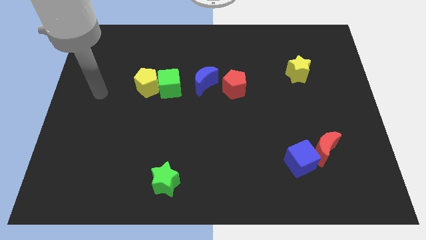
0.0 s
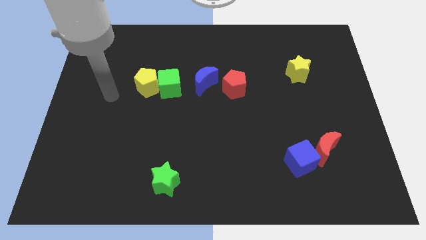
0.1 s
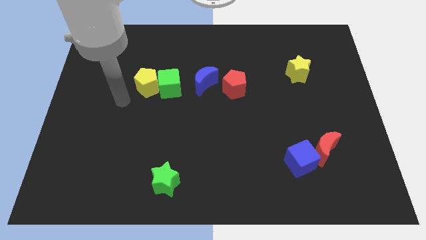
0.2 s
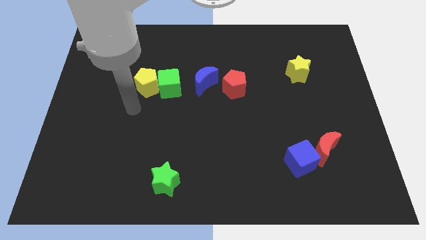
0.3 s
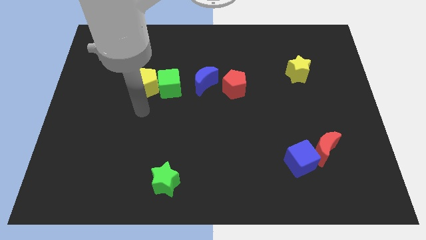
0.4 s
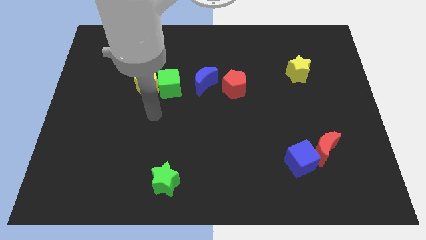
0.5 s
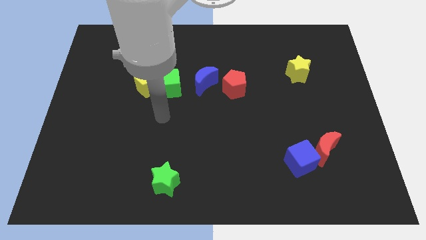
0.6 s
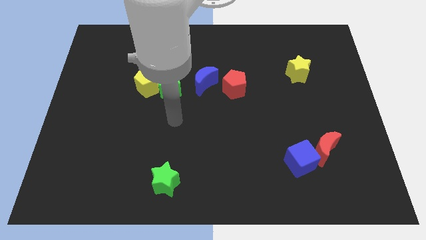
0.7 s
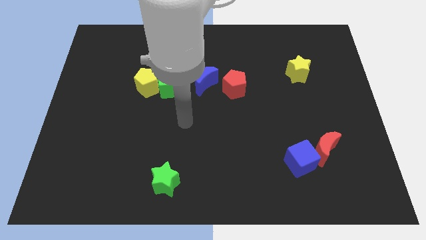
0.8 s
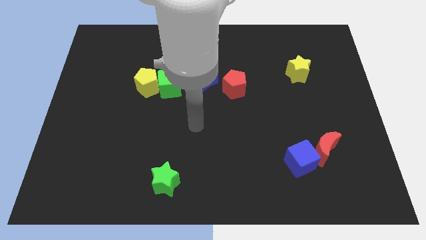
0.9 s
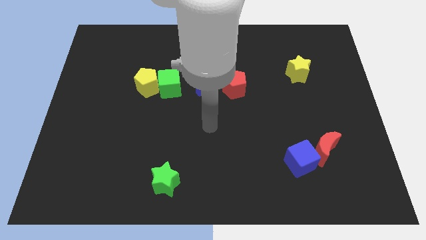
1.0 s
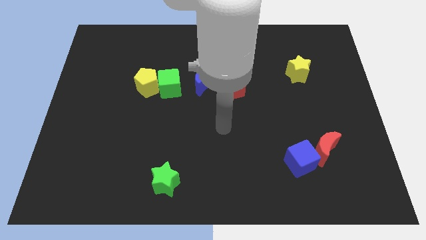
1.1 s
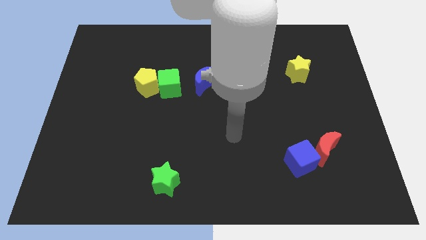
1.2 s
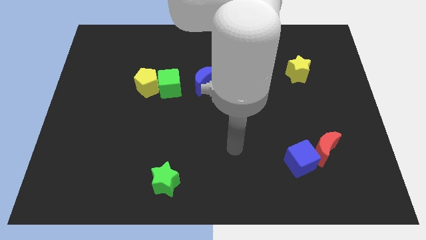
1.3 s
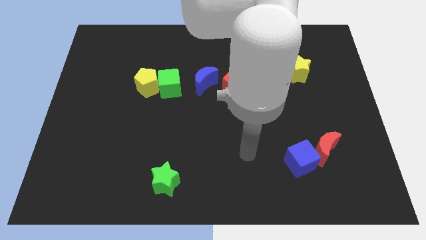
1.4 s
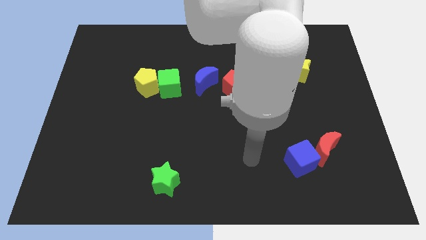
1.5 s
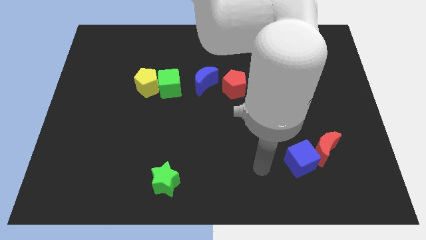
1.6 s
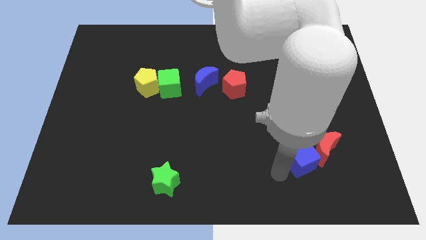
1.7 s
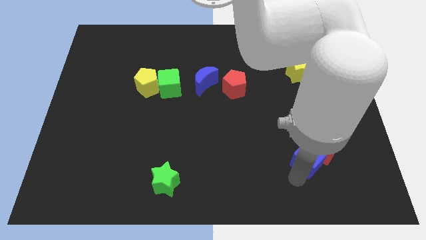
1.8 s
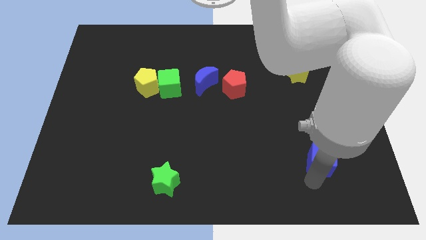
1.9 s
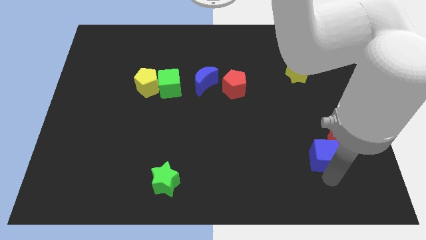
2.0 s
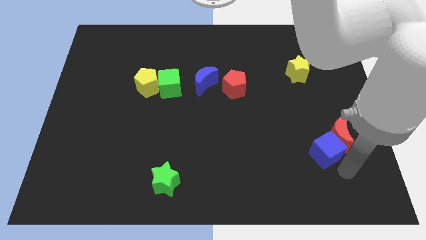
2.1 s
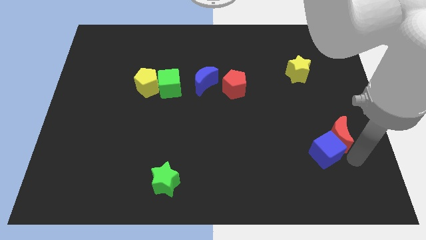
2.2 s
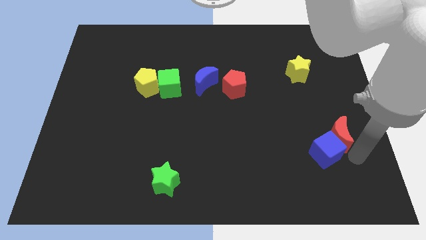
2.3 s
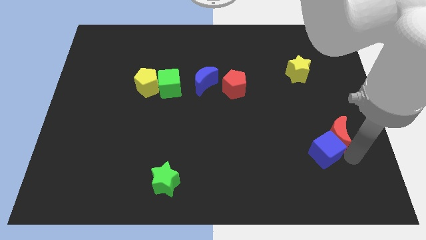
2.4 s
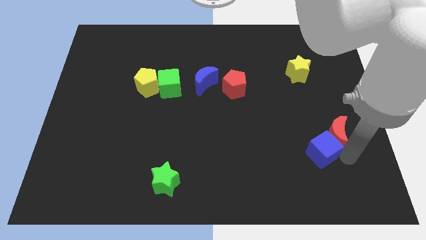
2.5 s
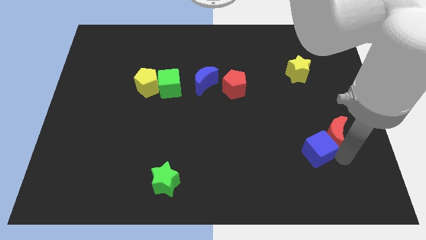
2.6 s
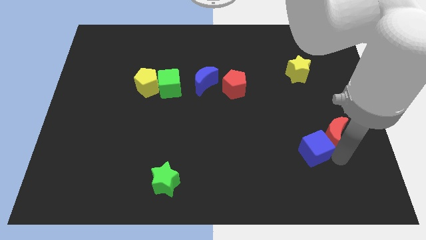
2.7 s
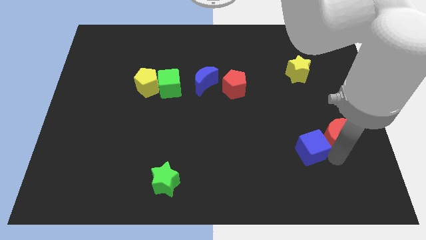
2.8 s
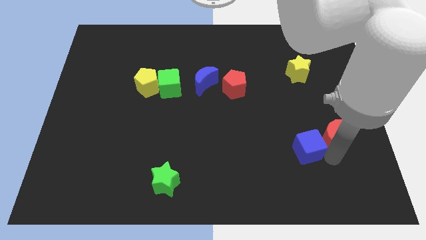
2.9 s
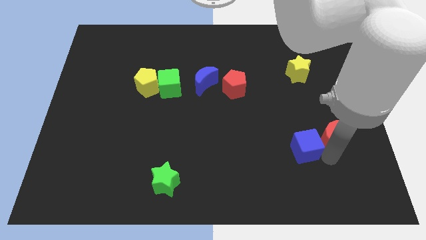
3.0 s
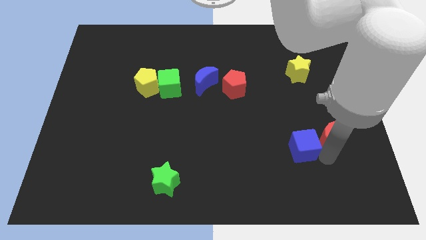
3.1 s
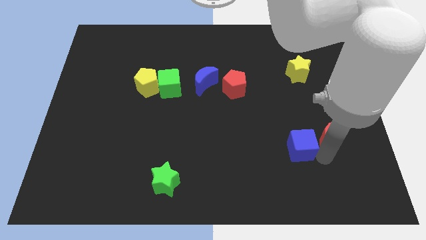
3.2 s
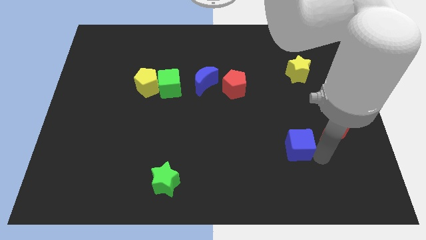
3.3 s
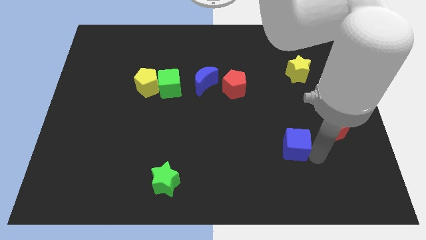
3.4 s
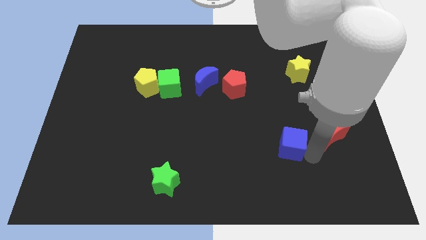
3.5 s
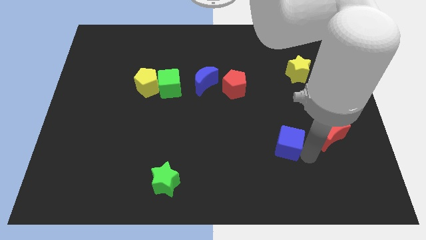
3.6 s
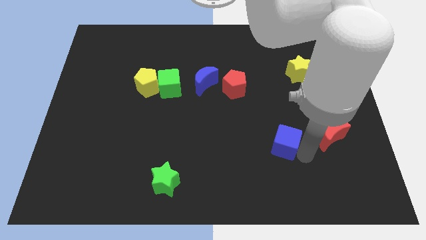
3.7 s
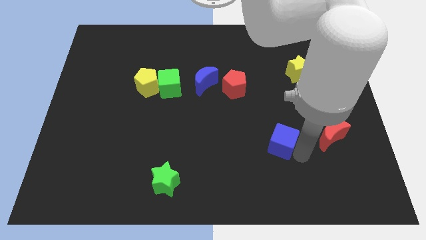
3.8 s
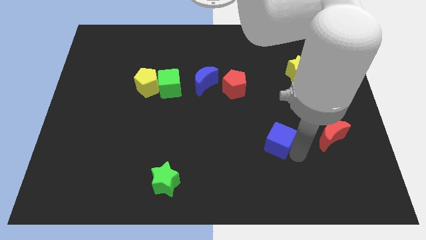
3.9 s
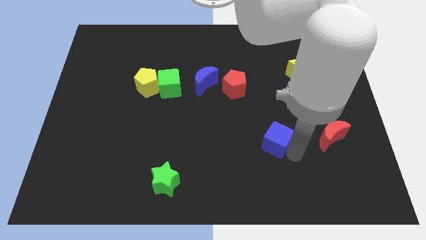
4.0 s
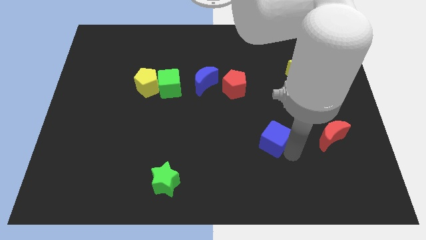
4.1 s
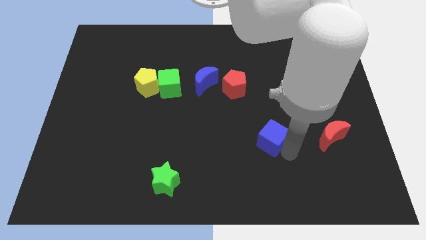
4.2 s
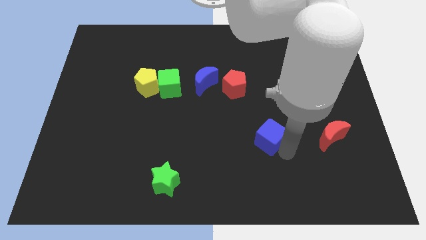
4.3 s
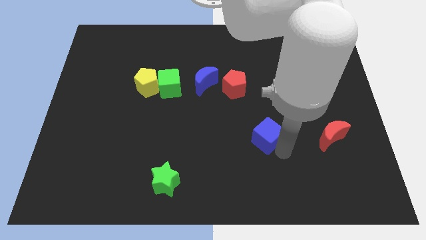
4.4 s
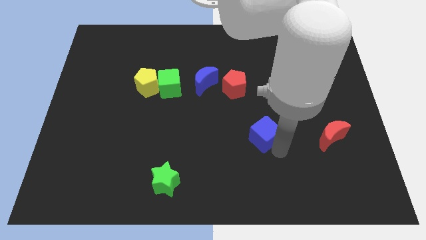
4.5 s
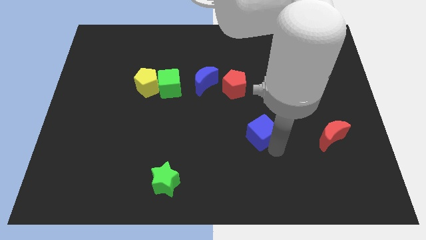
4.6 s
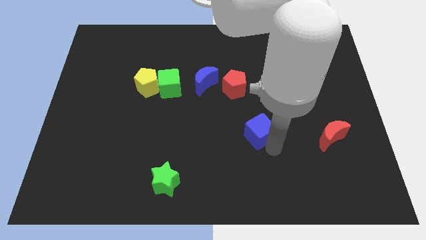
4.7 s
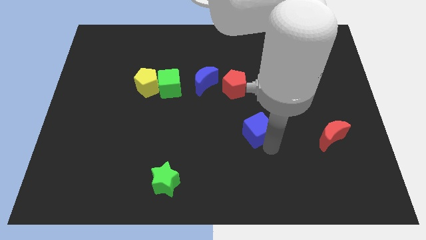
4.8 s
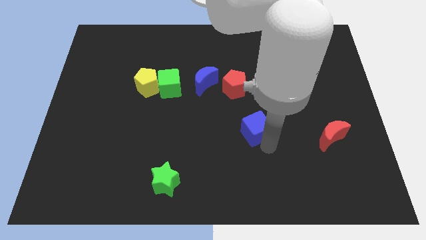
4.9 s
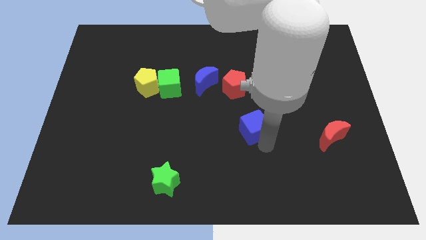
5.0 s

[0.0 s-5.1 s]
slide the blue cube to the middle

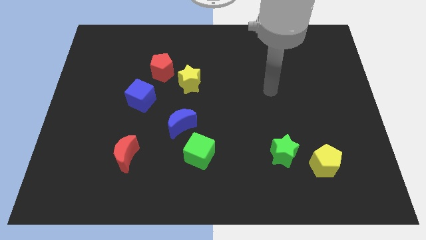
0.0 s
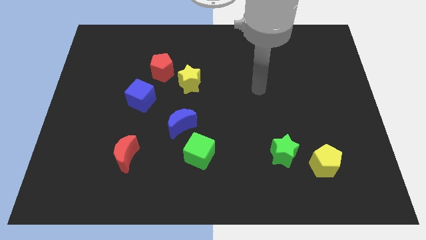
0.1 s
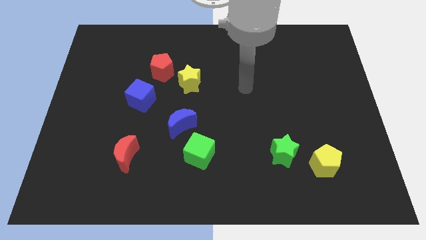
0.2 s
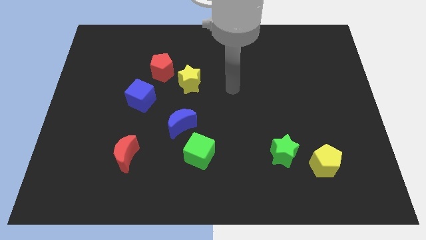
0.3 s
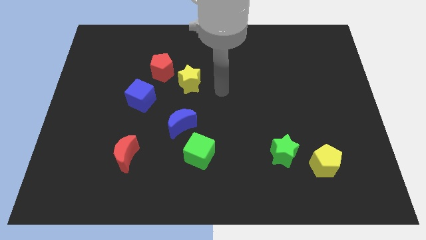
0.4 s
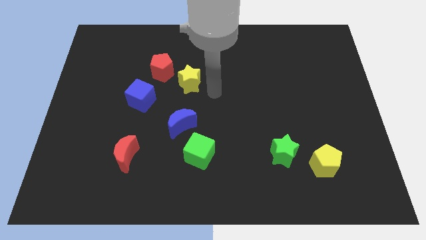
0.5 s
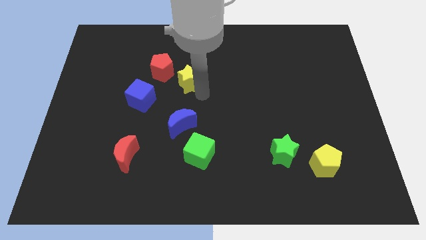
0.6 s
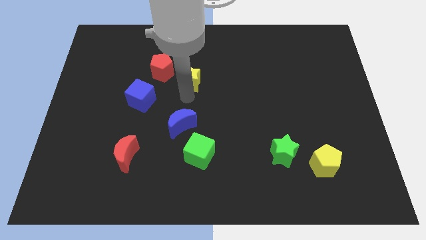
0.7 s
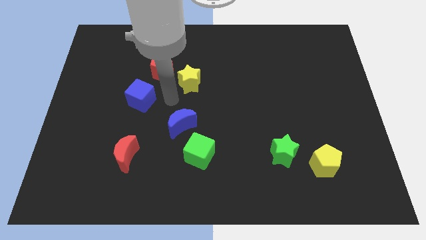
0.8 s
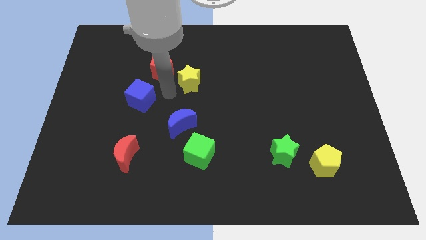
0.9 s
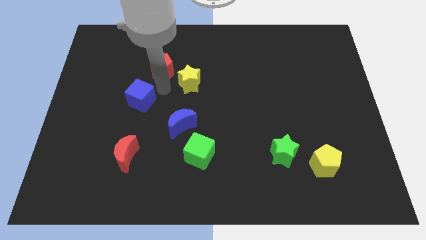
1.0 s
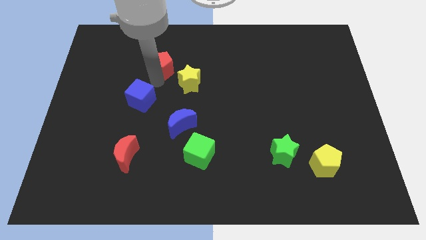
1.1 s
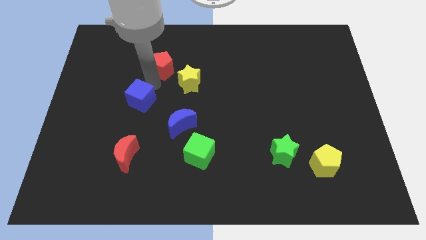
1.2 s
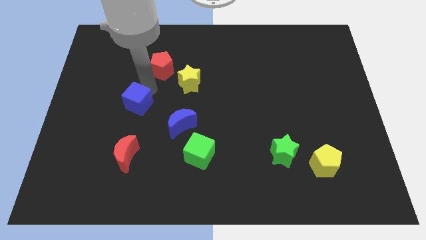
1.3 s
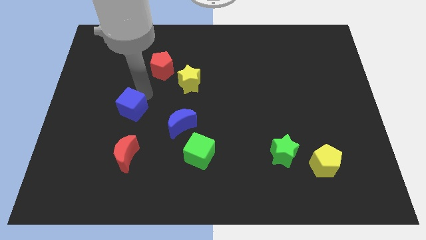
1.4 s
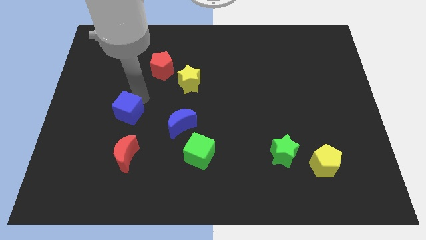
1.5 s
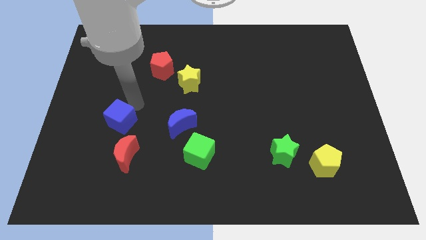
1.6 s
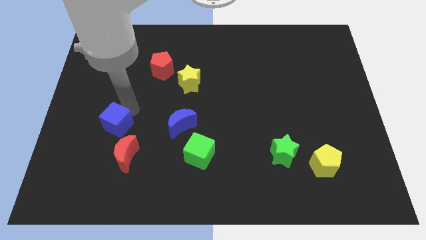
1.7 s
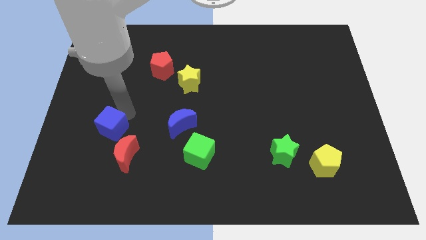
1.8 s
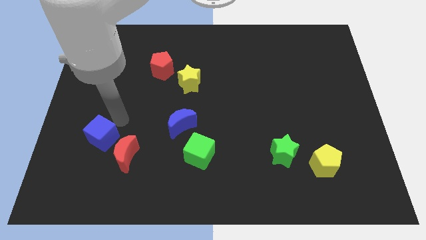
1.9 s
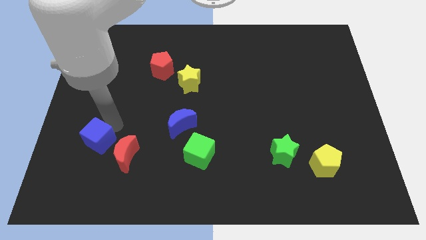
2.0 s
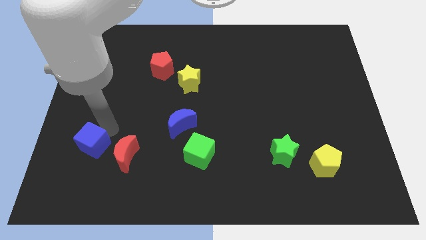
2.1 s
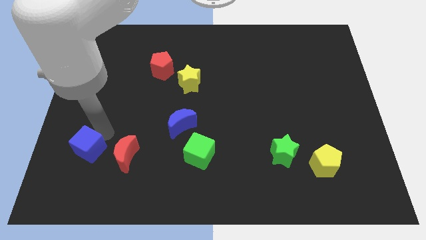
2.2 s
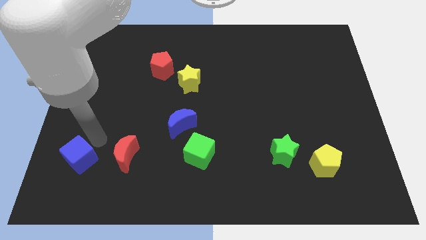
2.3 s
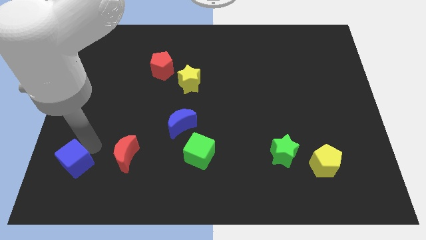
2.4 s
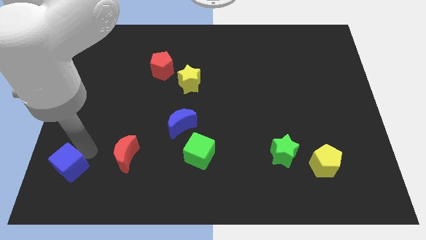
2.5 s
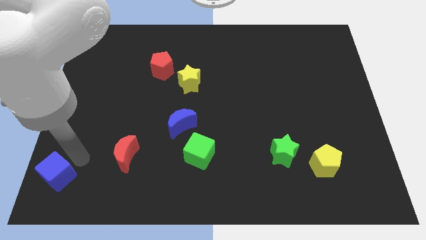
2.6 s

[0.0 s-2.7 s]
put the blue cube to the bottom left
